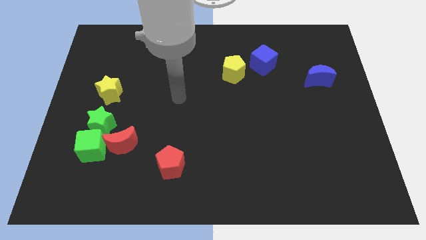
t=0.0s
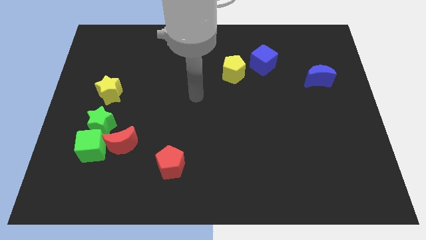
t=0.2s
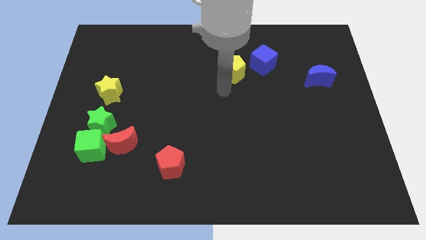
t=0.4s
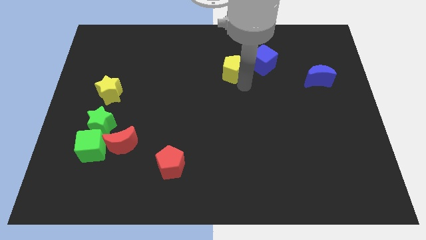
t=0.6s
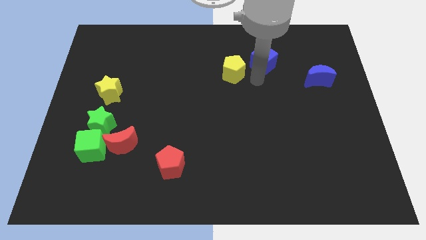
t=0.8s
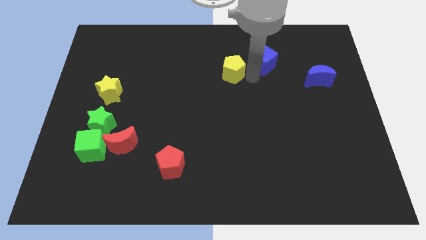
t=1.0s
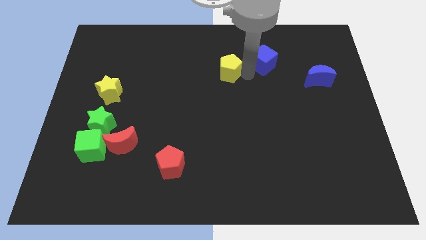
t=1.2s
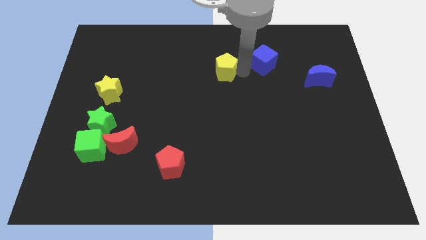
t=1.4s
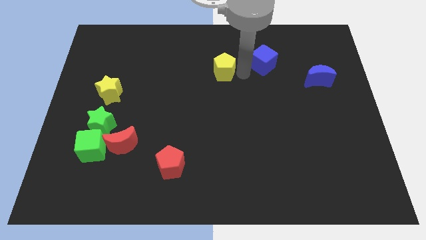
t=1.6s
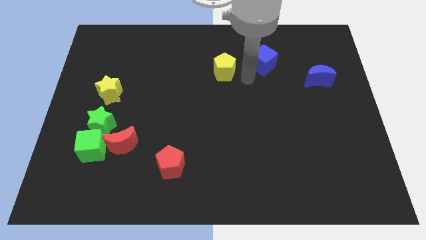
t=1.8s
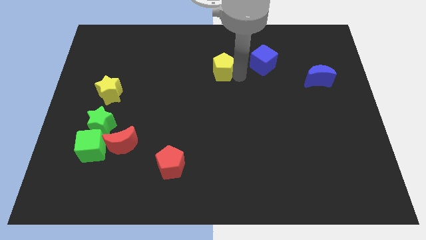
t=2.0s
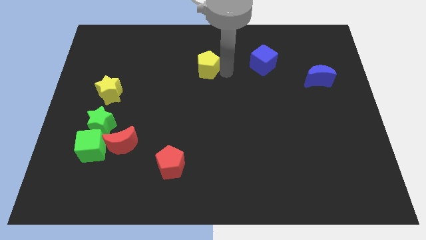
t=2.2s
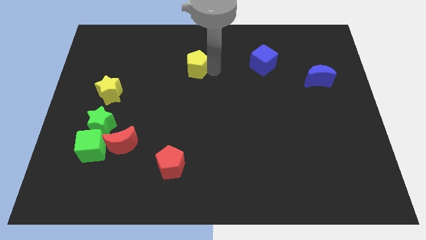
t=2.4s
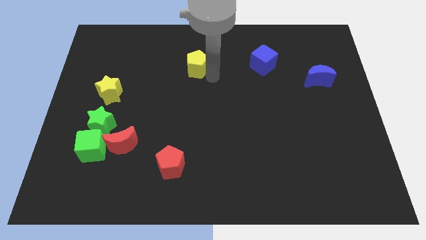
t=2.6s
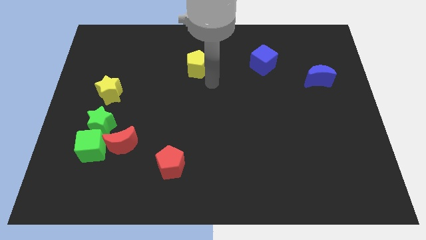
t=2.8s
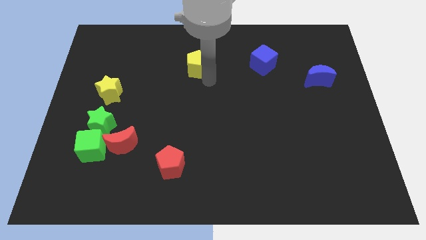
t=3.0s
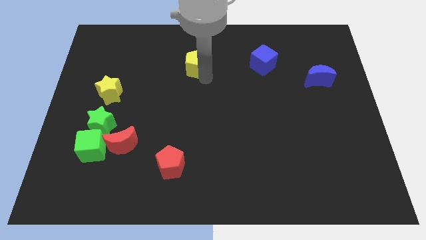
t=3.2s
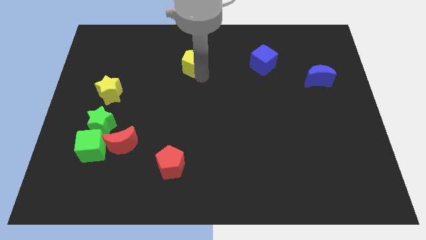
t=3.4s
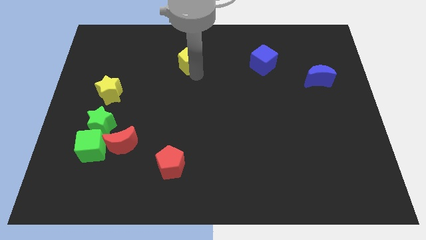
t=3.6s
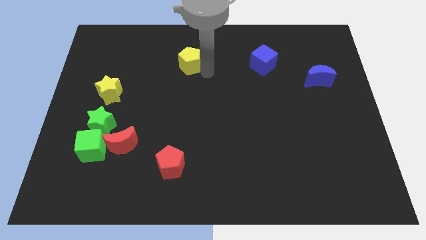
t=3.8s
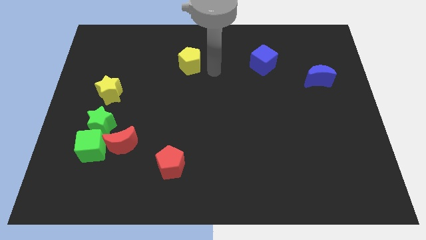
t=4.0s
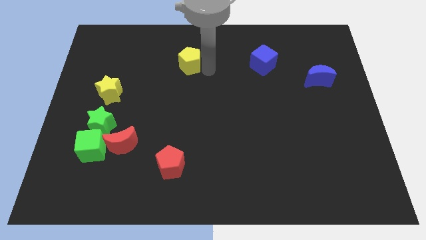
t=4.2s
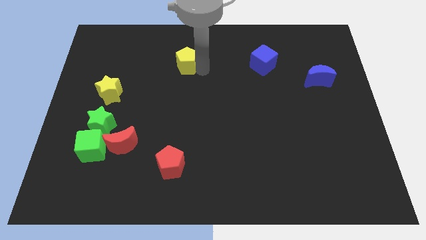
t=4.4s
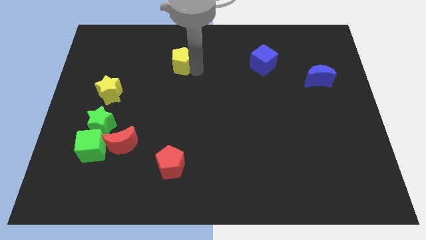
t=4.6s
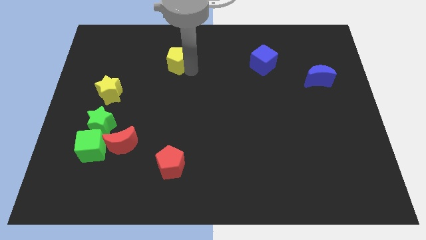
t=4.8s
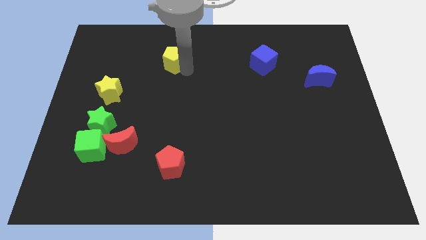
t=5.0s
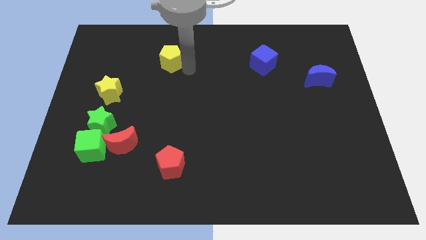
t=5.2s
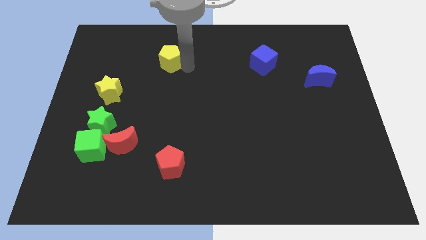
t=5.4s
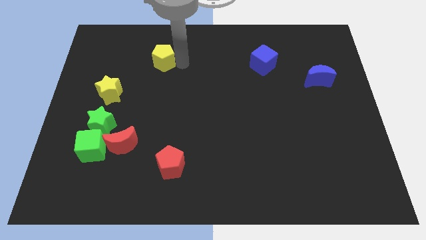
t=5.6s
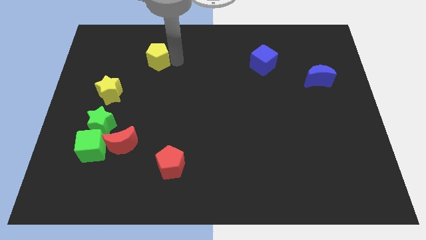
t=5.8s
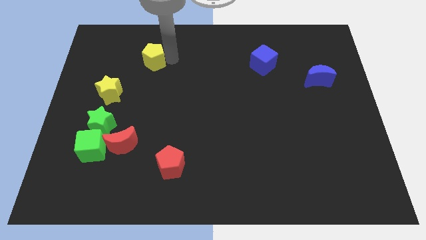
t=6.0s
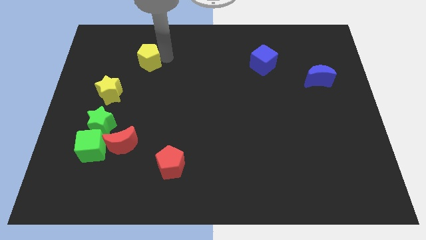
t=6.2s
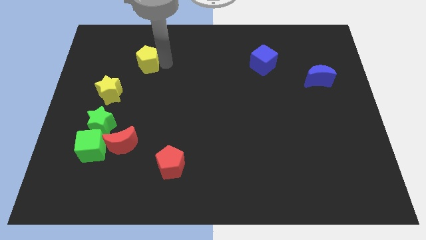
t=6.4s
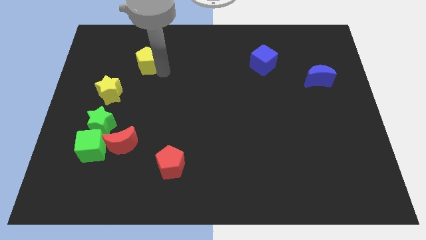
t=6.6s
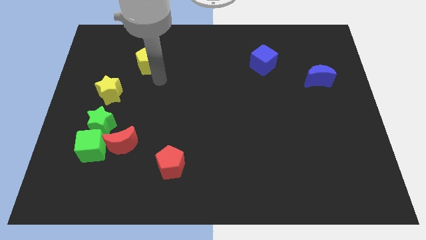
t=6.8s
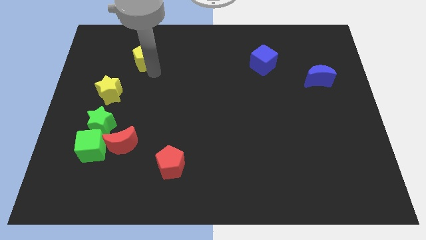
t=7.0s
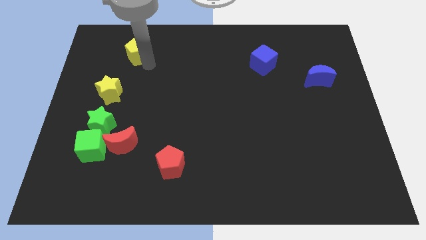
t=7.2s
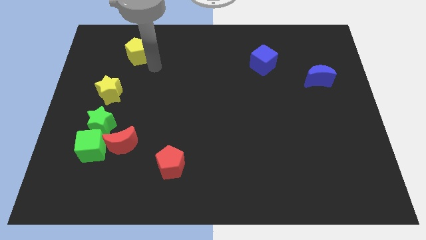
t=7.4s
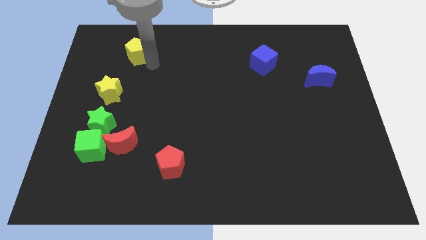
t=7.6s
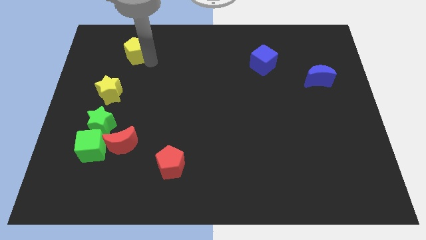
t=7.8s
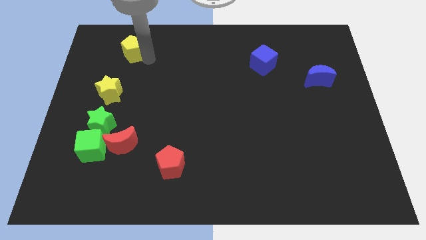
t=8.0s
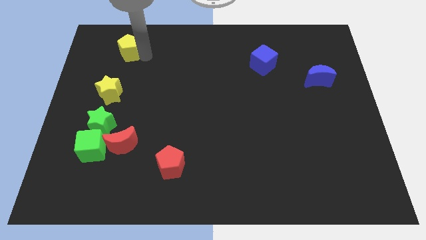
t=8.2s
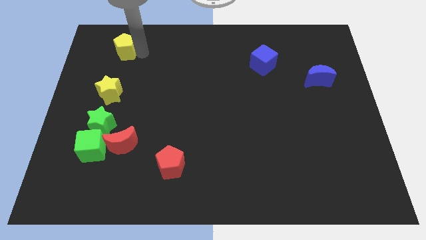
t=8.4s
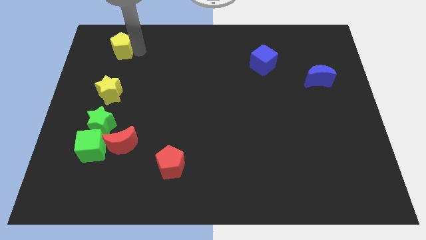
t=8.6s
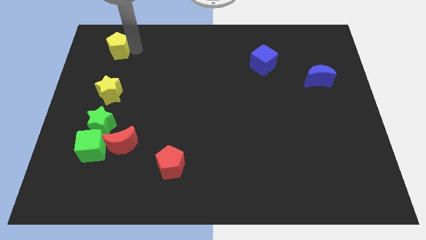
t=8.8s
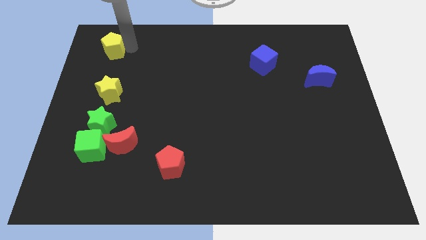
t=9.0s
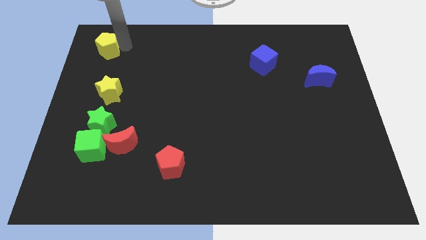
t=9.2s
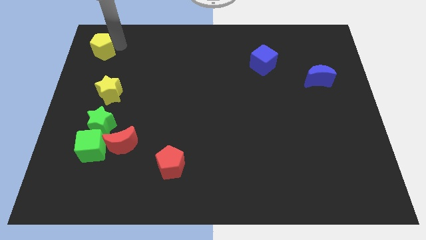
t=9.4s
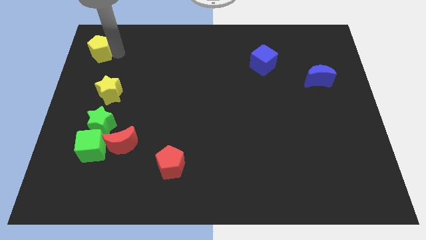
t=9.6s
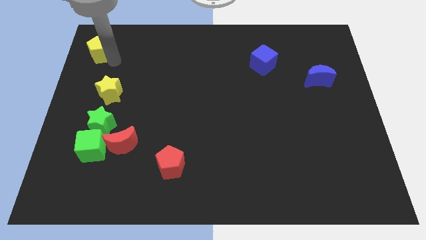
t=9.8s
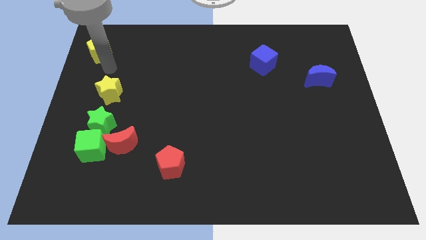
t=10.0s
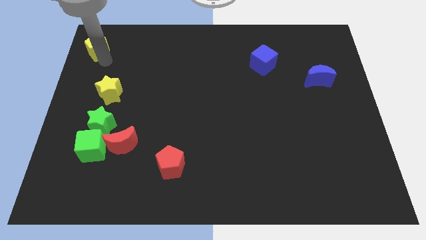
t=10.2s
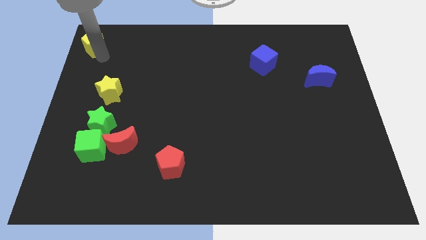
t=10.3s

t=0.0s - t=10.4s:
put the yellow pentagon to the upper left corner

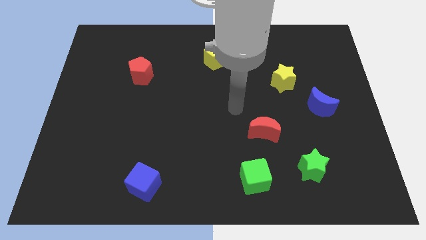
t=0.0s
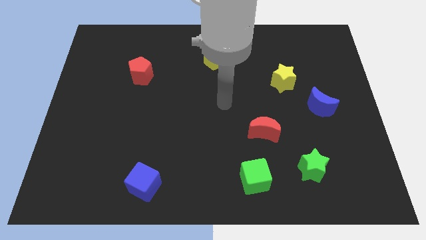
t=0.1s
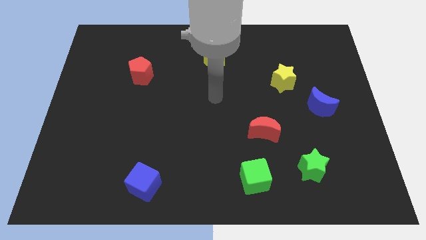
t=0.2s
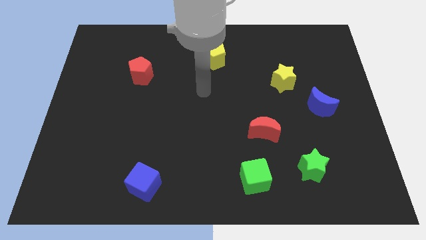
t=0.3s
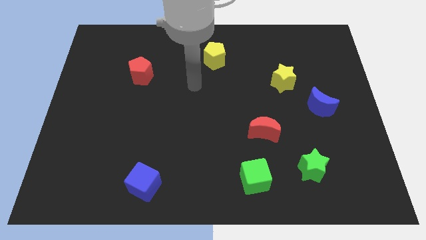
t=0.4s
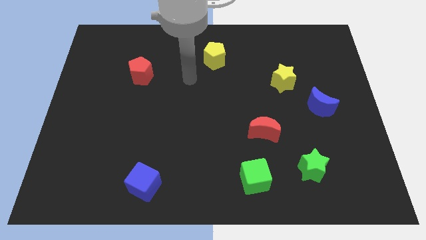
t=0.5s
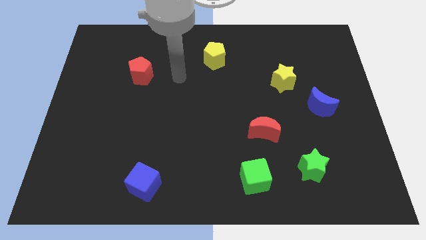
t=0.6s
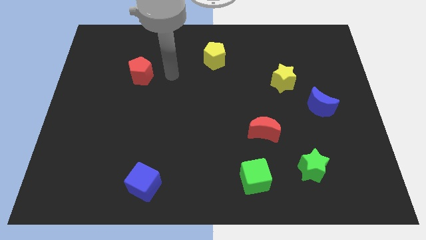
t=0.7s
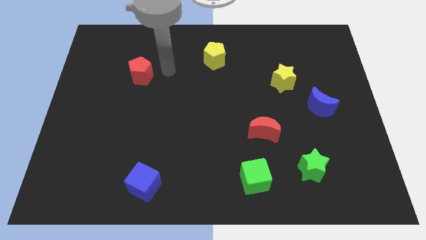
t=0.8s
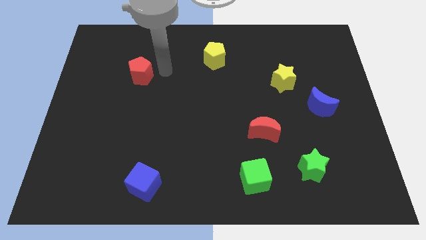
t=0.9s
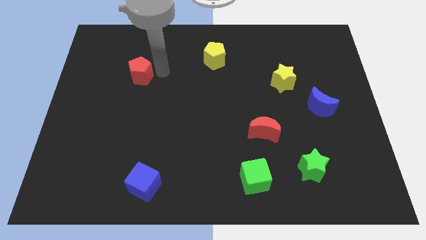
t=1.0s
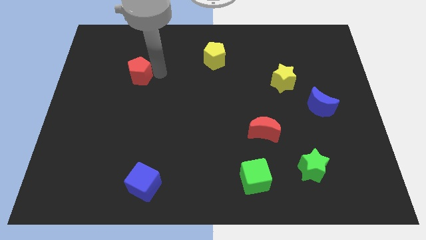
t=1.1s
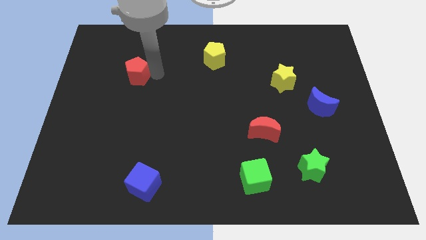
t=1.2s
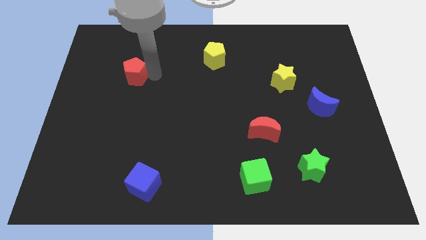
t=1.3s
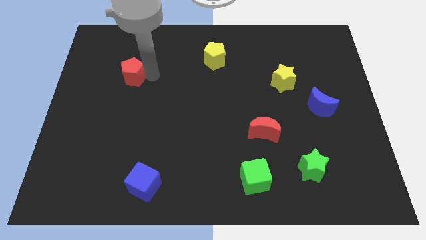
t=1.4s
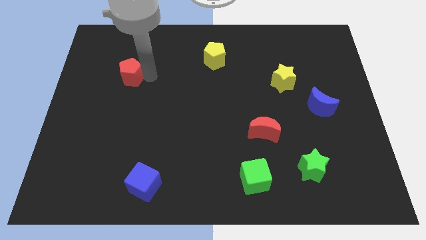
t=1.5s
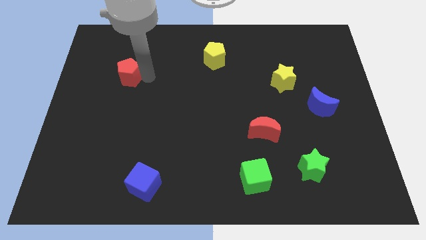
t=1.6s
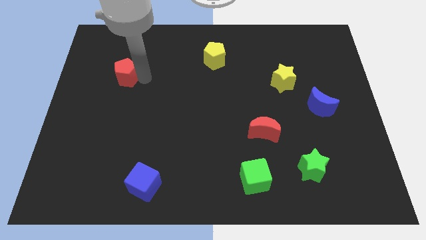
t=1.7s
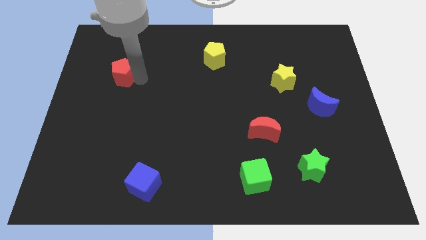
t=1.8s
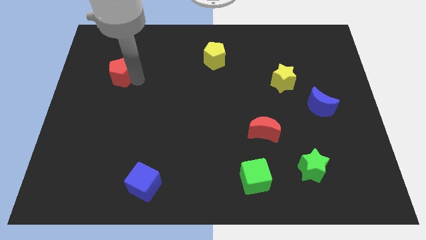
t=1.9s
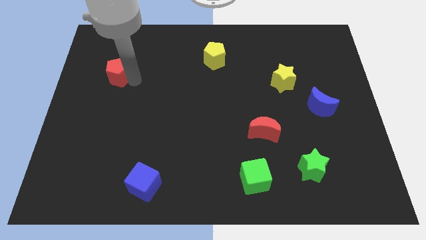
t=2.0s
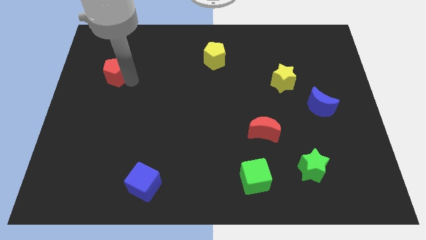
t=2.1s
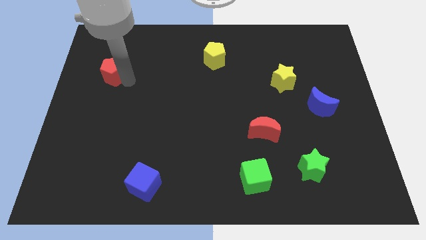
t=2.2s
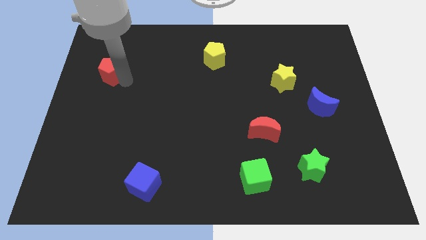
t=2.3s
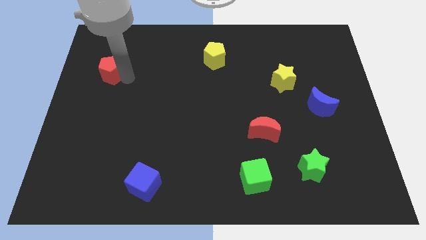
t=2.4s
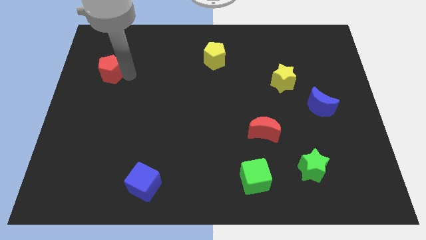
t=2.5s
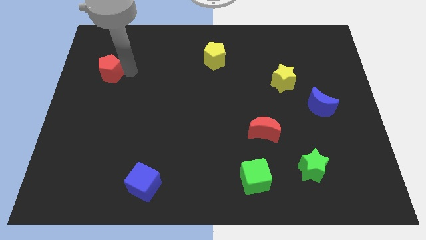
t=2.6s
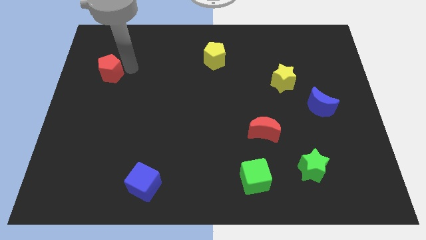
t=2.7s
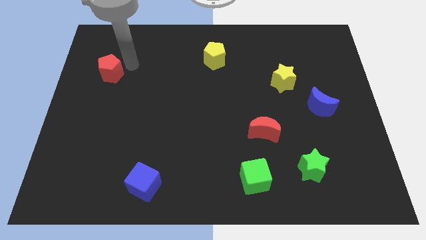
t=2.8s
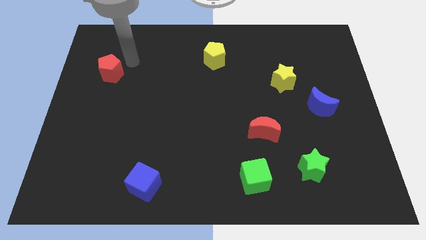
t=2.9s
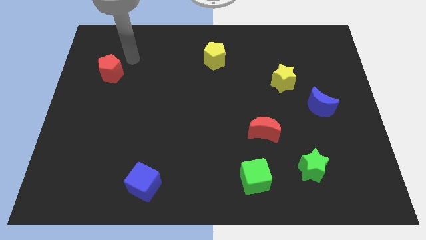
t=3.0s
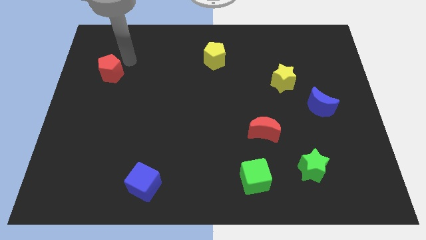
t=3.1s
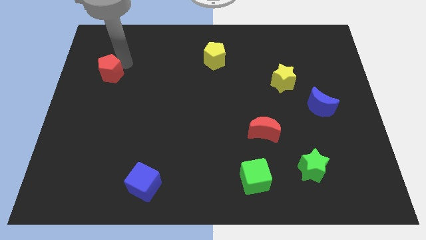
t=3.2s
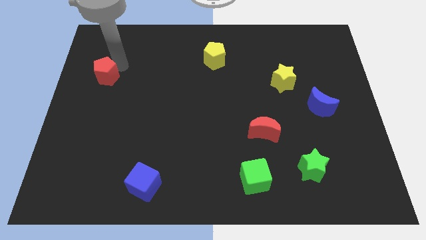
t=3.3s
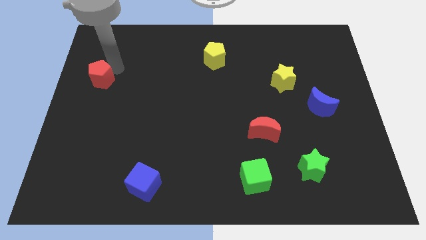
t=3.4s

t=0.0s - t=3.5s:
push the red pentagon to the left side of the board
